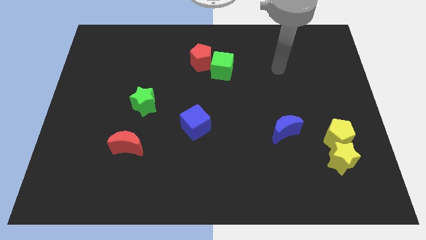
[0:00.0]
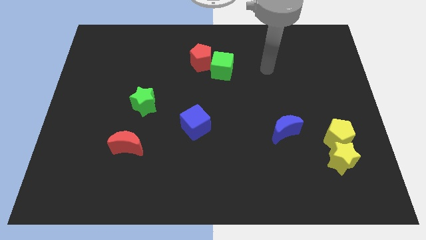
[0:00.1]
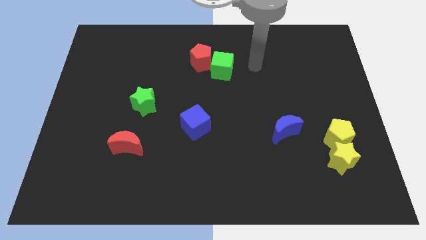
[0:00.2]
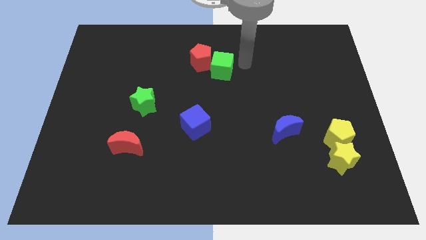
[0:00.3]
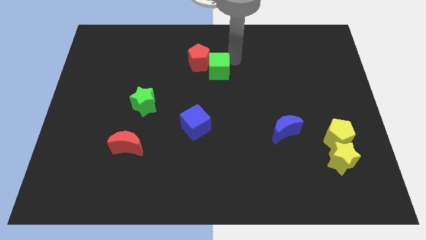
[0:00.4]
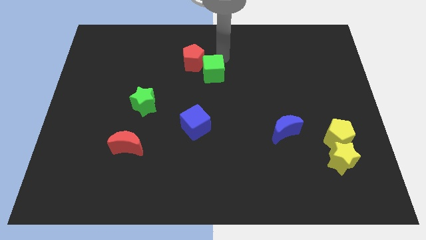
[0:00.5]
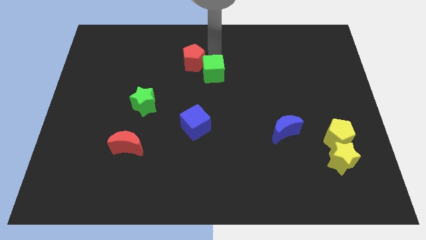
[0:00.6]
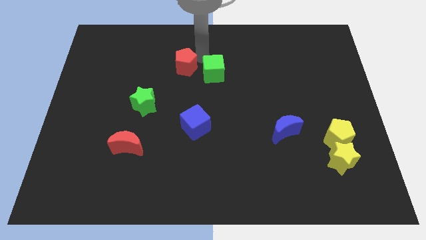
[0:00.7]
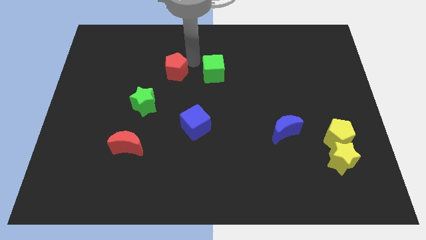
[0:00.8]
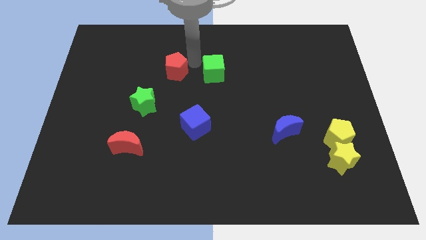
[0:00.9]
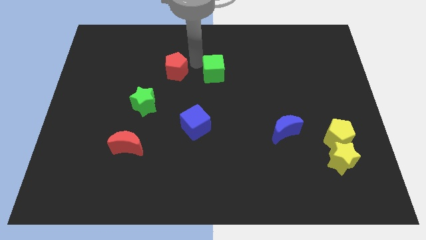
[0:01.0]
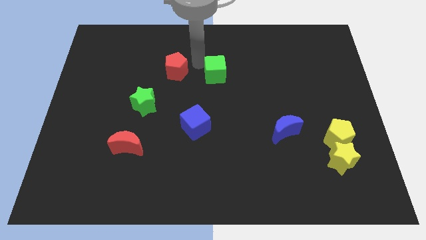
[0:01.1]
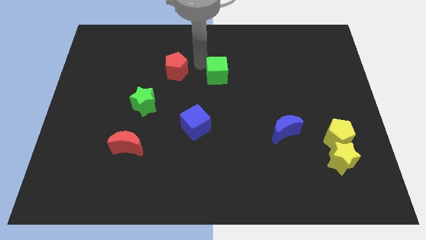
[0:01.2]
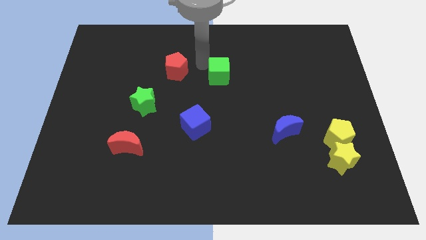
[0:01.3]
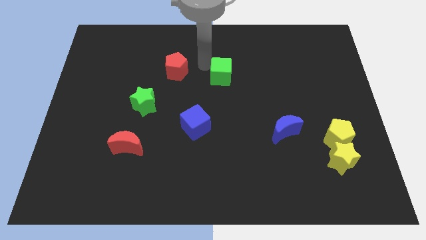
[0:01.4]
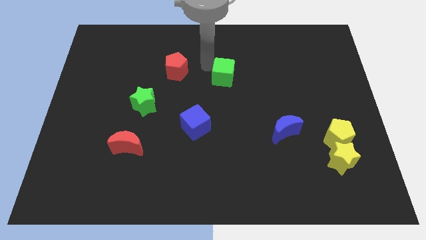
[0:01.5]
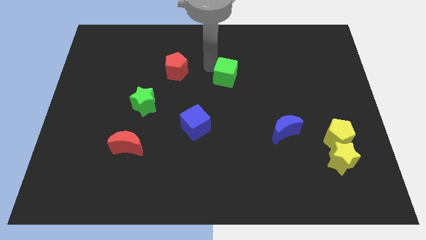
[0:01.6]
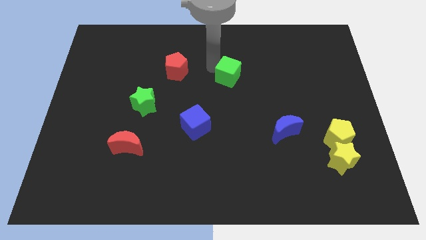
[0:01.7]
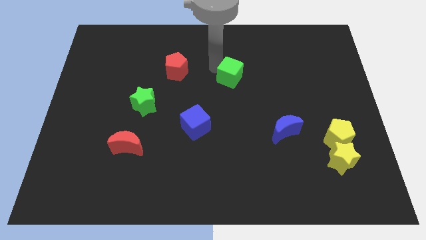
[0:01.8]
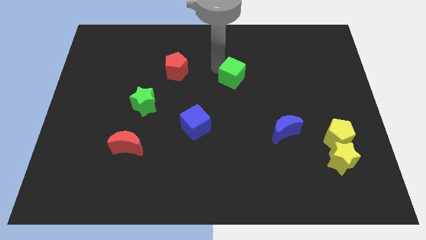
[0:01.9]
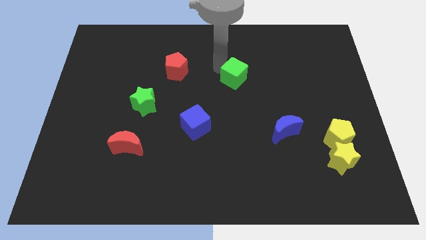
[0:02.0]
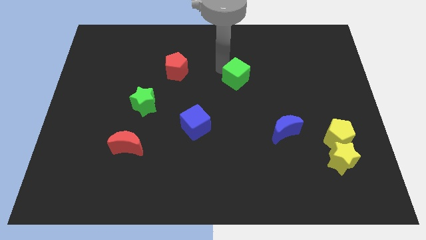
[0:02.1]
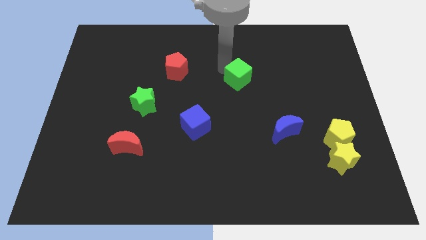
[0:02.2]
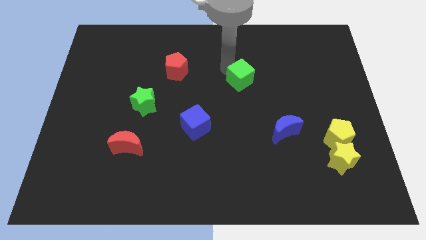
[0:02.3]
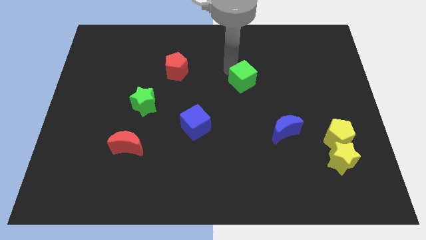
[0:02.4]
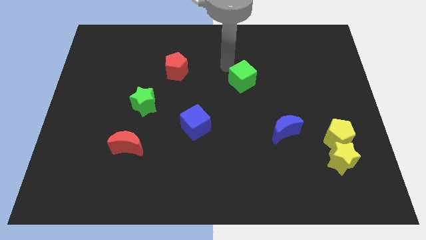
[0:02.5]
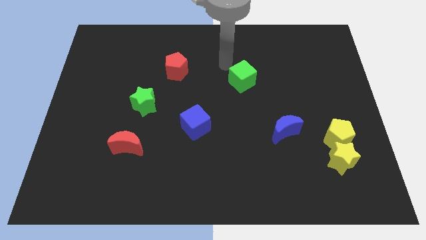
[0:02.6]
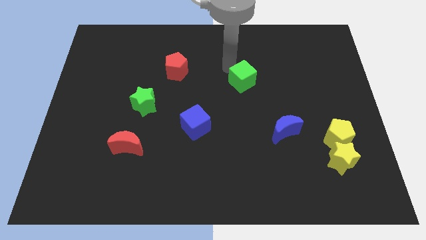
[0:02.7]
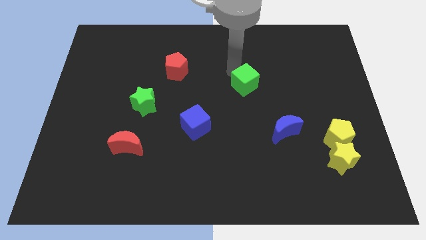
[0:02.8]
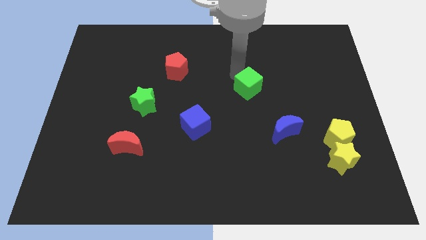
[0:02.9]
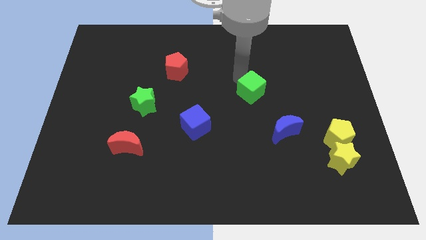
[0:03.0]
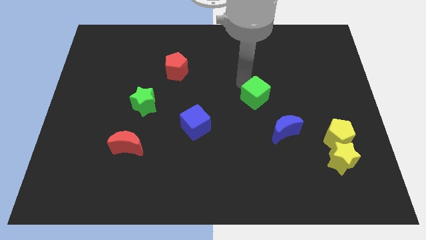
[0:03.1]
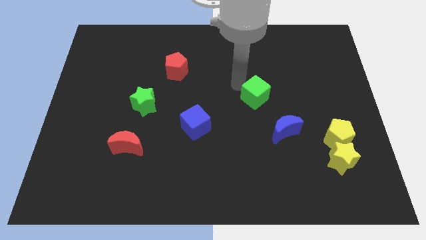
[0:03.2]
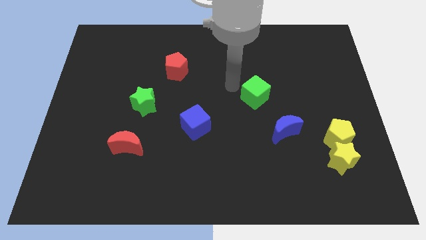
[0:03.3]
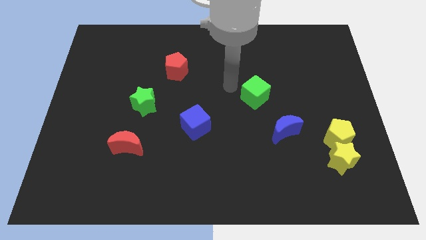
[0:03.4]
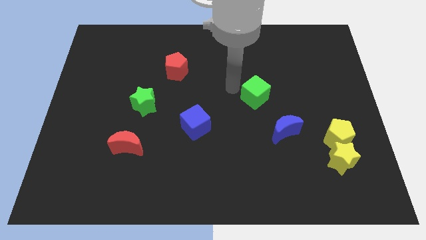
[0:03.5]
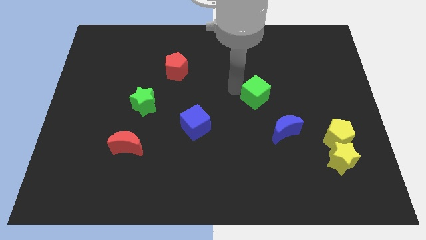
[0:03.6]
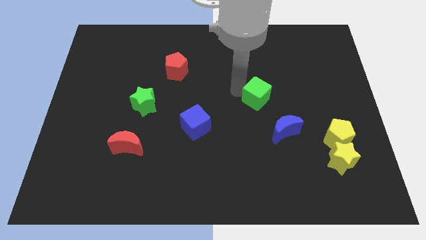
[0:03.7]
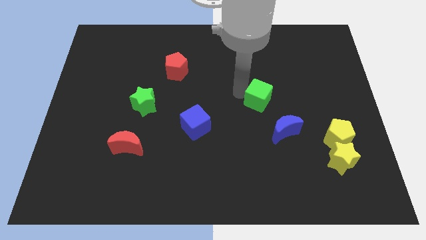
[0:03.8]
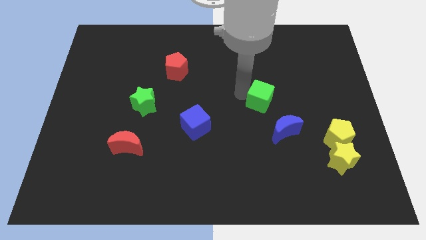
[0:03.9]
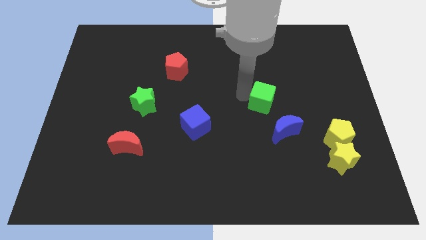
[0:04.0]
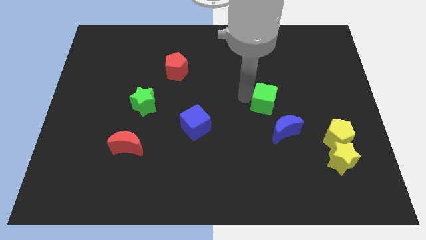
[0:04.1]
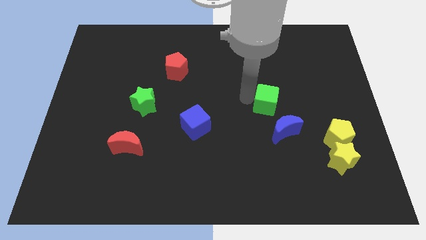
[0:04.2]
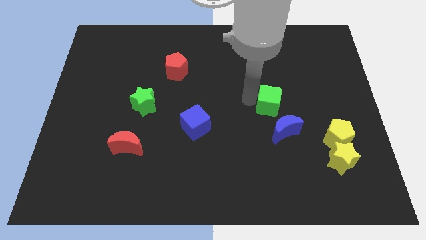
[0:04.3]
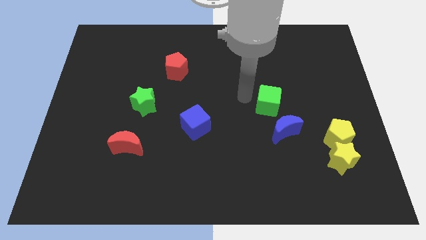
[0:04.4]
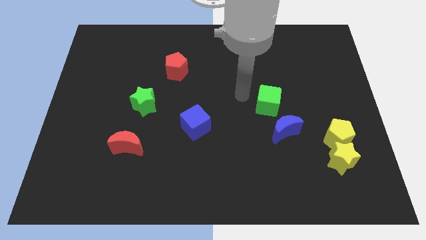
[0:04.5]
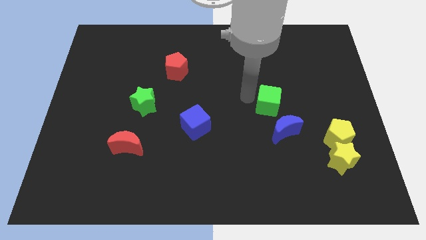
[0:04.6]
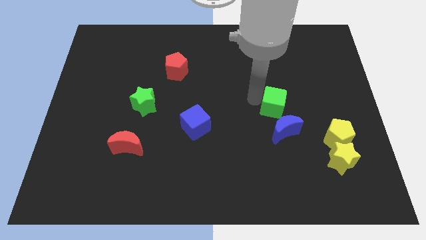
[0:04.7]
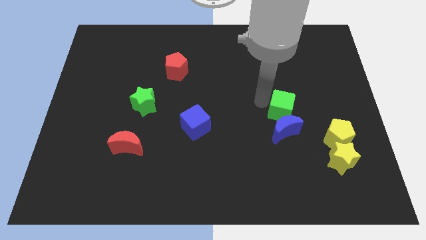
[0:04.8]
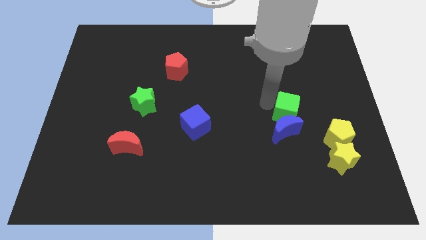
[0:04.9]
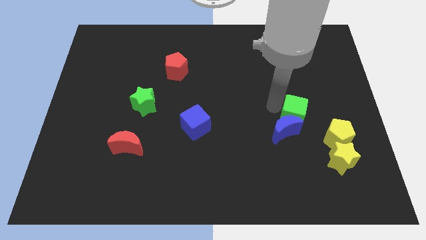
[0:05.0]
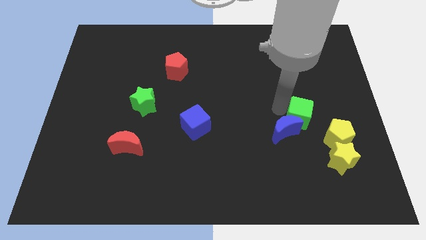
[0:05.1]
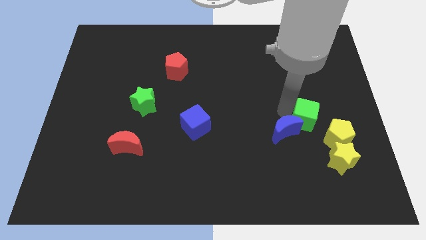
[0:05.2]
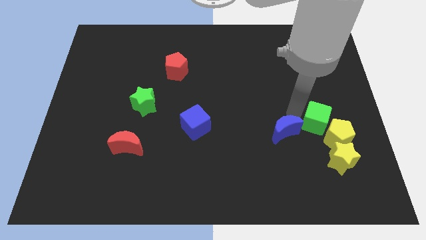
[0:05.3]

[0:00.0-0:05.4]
push the green cube towards the yellow pentagon

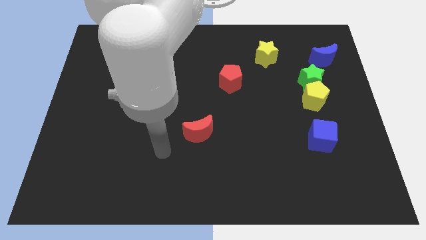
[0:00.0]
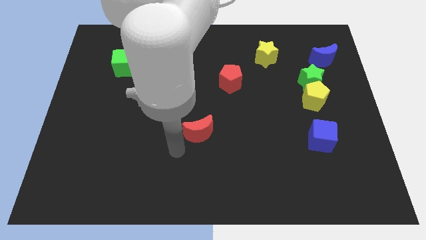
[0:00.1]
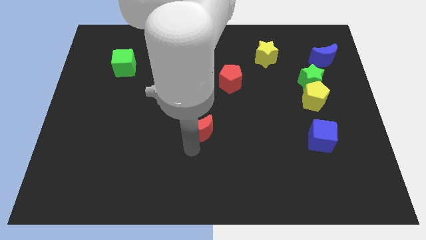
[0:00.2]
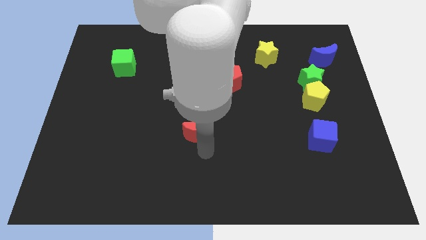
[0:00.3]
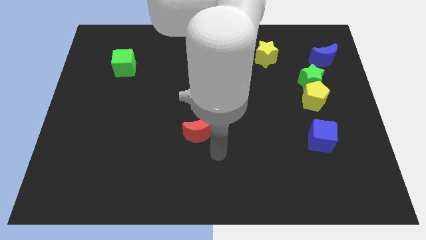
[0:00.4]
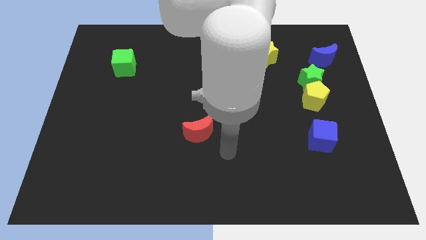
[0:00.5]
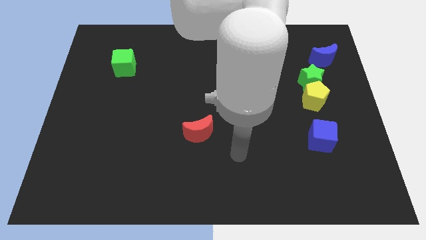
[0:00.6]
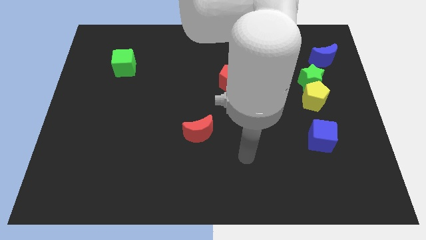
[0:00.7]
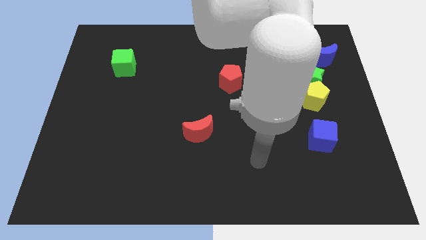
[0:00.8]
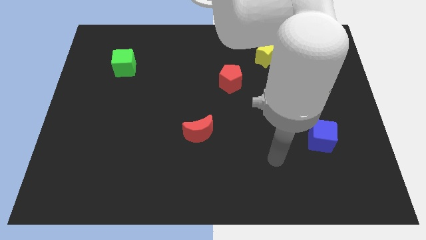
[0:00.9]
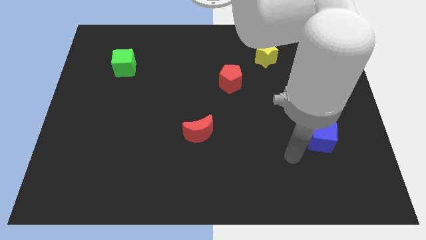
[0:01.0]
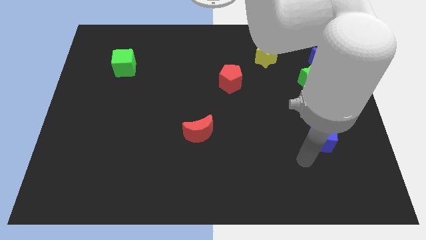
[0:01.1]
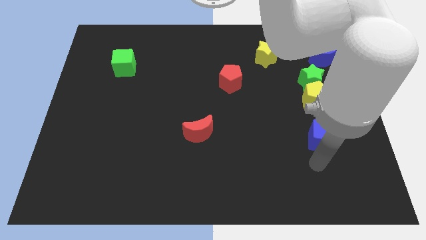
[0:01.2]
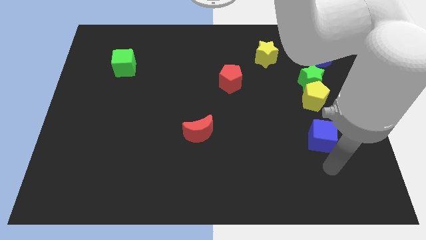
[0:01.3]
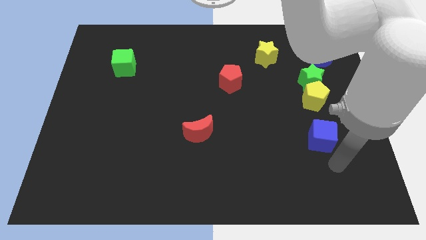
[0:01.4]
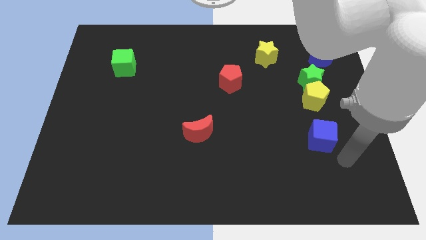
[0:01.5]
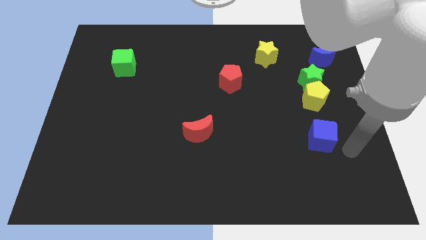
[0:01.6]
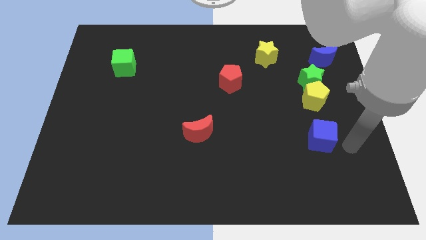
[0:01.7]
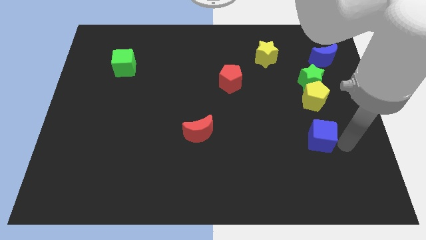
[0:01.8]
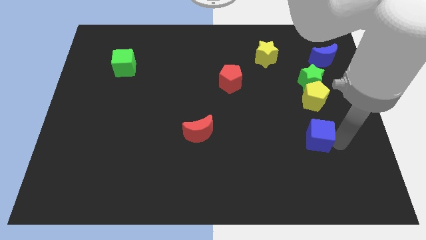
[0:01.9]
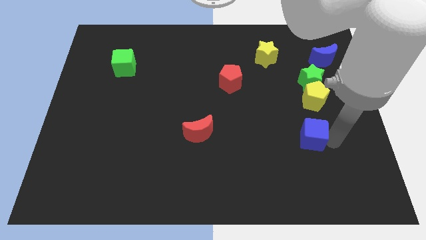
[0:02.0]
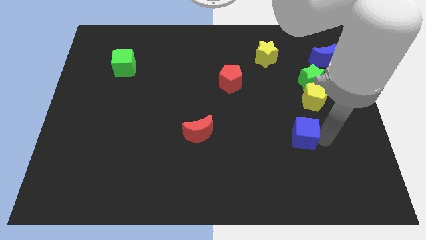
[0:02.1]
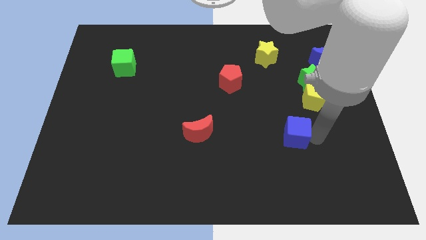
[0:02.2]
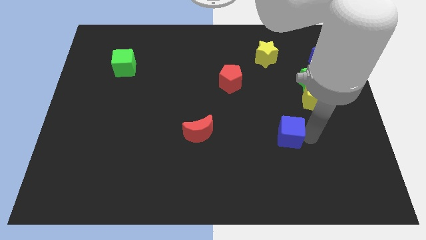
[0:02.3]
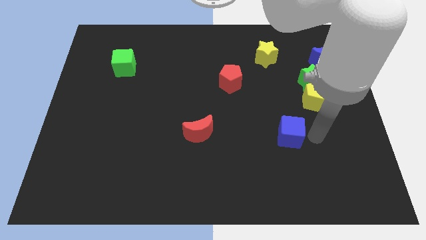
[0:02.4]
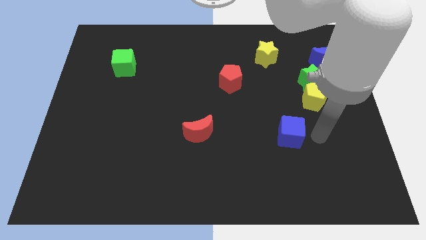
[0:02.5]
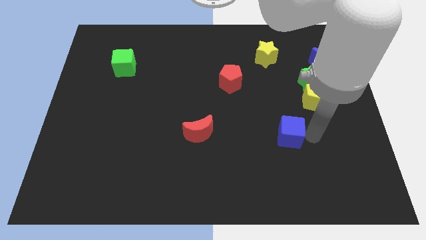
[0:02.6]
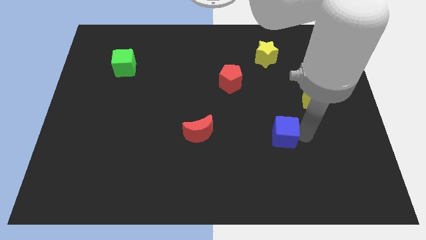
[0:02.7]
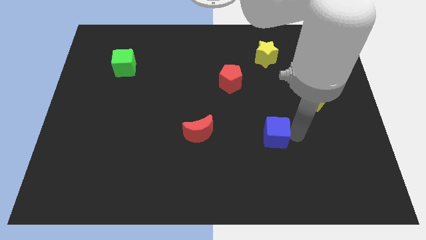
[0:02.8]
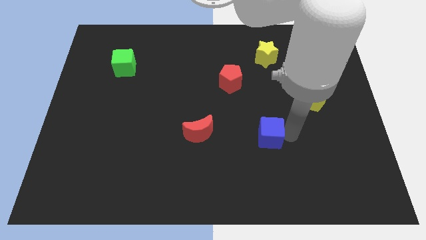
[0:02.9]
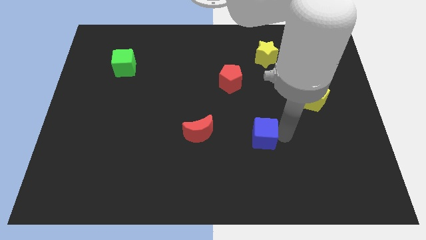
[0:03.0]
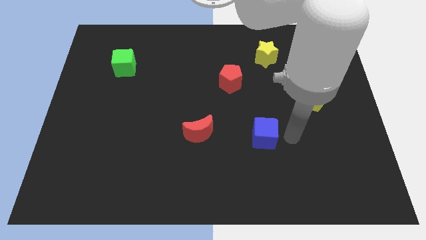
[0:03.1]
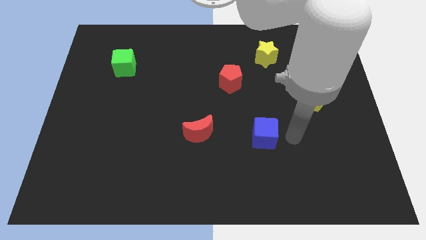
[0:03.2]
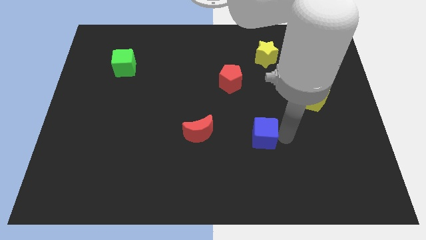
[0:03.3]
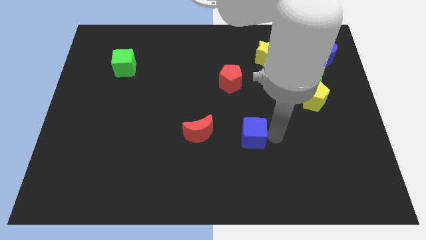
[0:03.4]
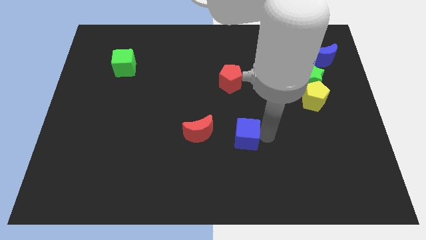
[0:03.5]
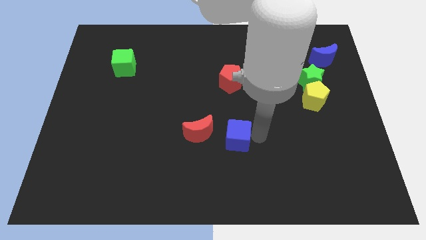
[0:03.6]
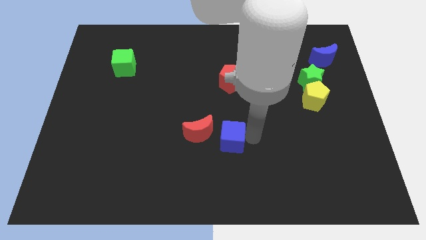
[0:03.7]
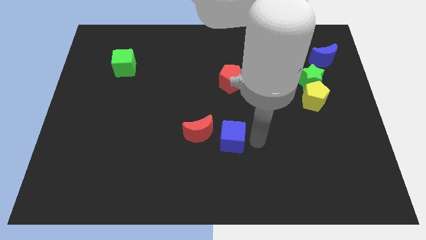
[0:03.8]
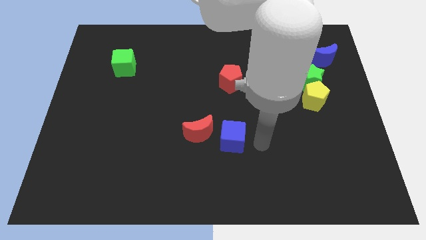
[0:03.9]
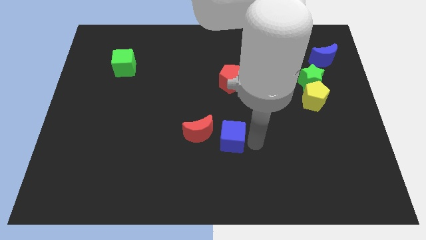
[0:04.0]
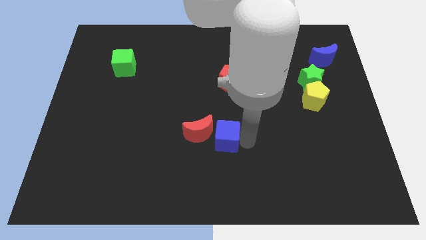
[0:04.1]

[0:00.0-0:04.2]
slide the blue cube towards the red moon
